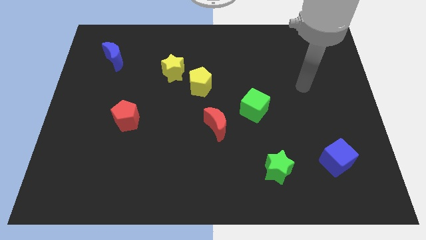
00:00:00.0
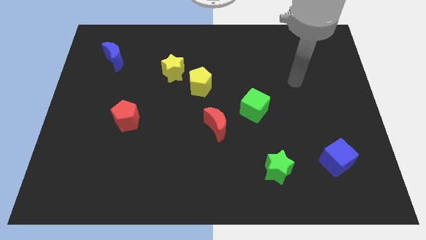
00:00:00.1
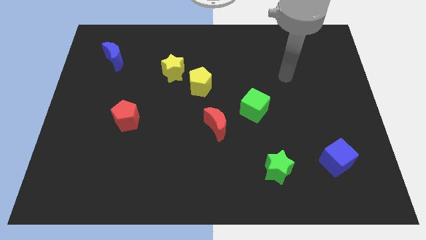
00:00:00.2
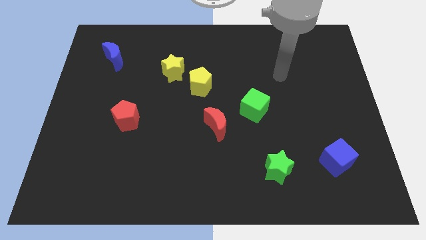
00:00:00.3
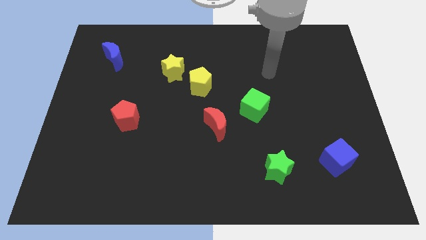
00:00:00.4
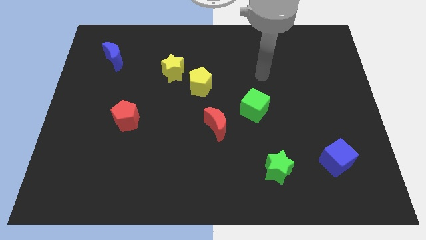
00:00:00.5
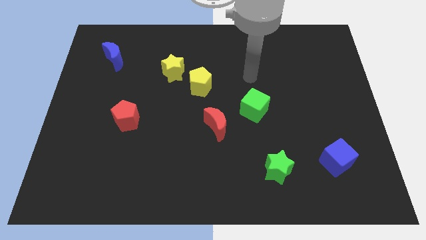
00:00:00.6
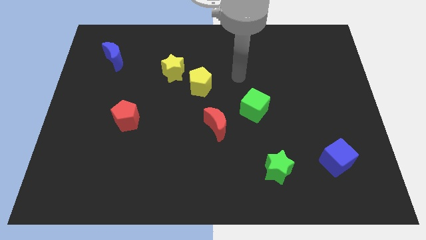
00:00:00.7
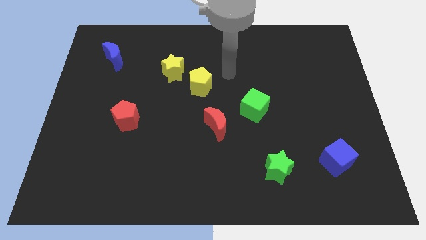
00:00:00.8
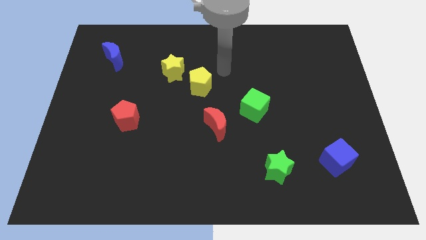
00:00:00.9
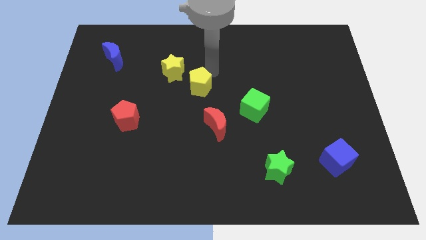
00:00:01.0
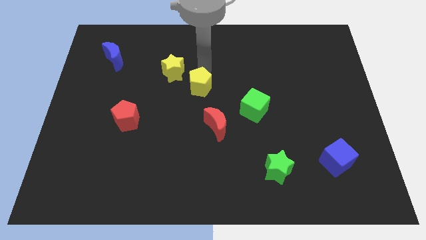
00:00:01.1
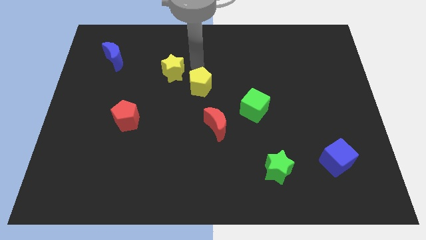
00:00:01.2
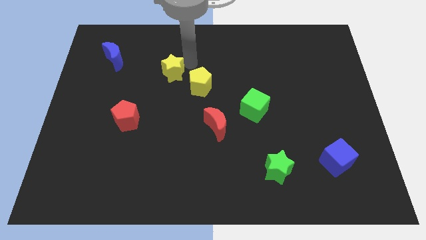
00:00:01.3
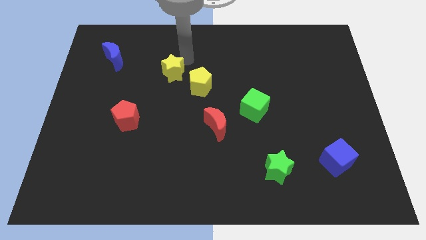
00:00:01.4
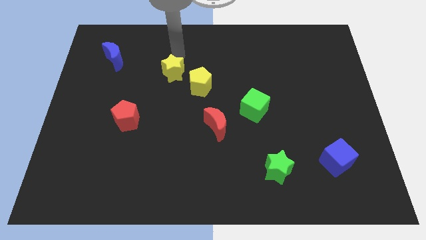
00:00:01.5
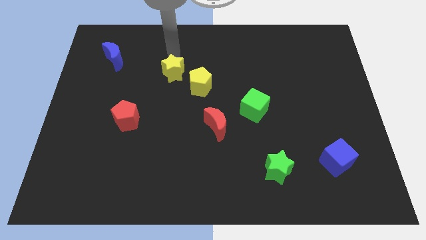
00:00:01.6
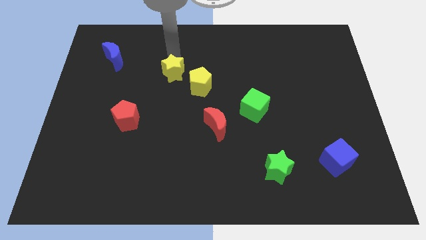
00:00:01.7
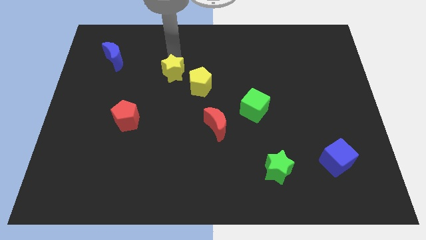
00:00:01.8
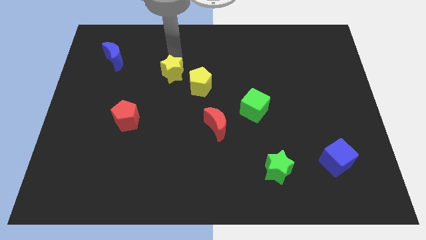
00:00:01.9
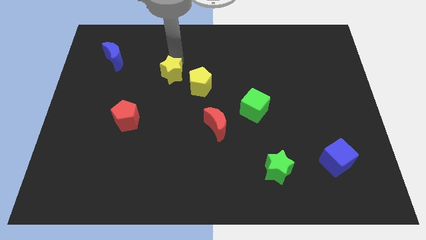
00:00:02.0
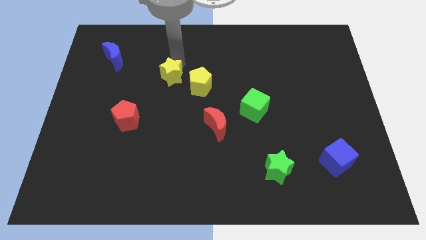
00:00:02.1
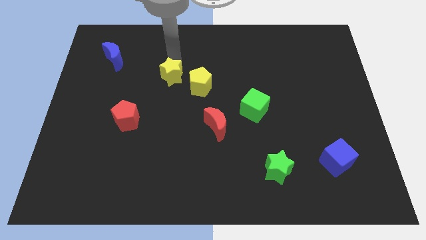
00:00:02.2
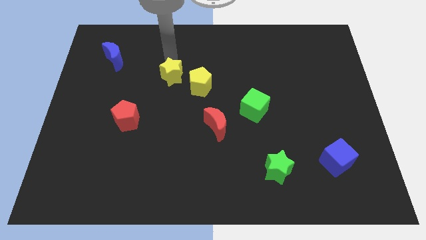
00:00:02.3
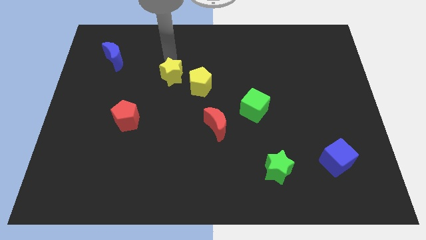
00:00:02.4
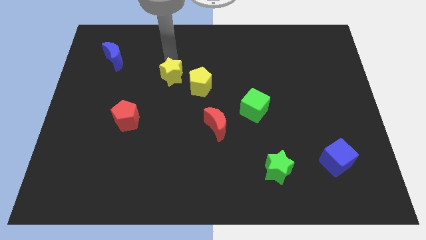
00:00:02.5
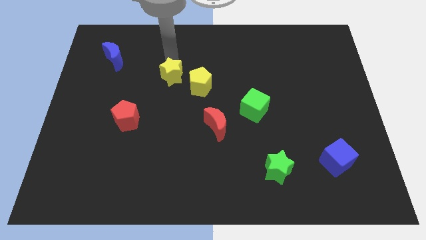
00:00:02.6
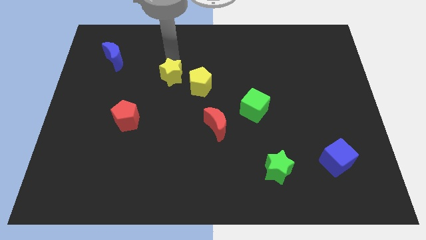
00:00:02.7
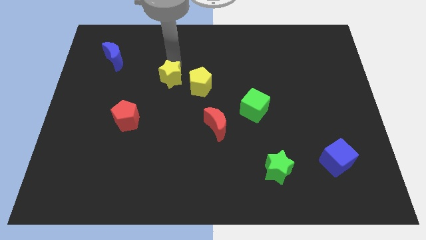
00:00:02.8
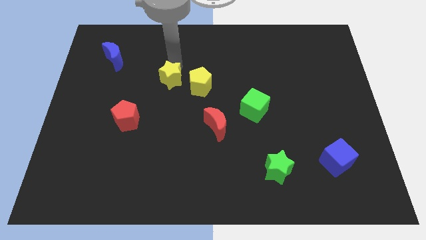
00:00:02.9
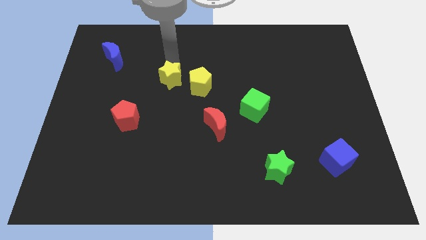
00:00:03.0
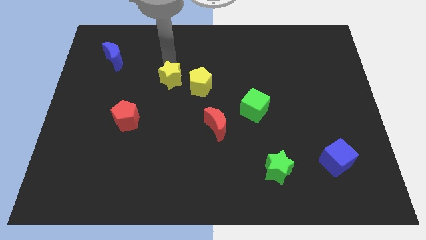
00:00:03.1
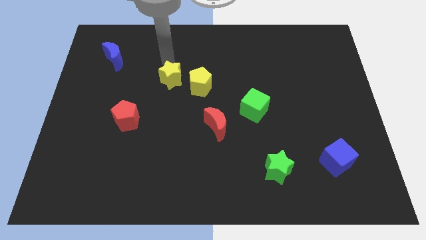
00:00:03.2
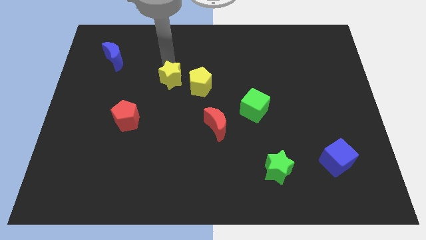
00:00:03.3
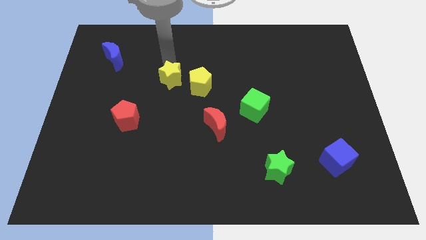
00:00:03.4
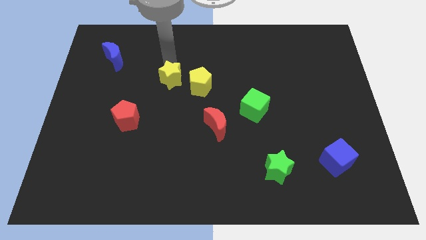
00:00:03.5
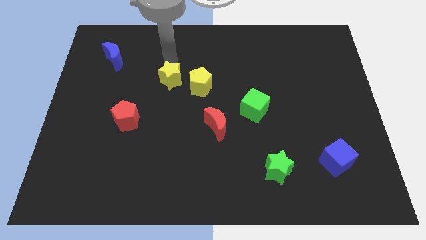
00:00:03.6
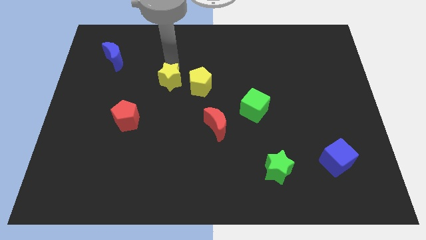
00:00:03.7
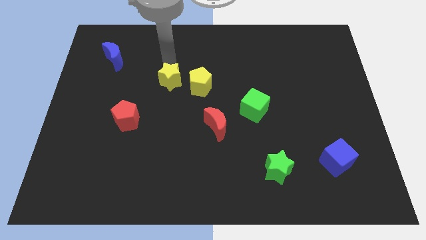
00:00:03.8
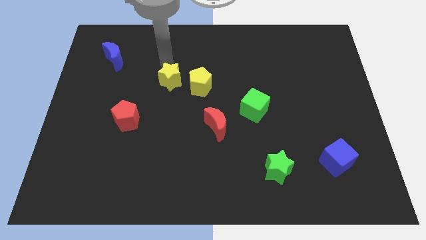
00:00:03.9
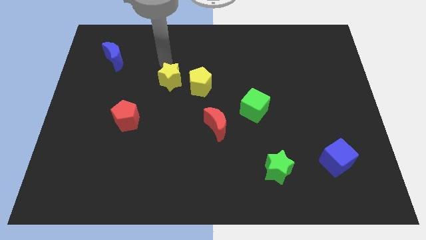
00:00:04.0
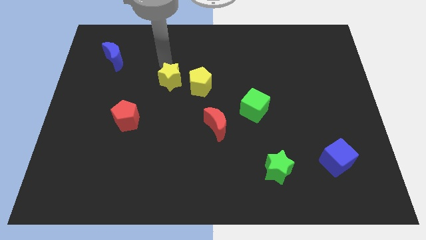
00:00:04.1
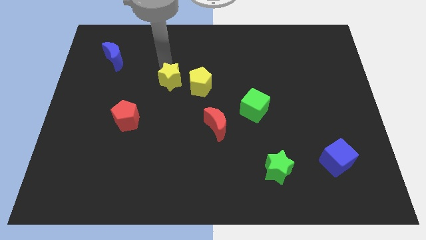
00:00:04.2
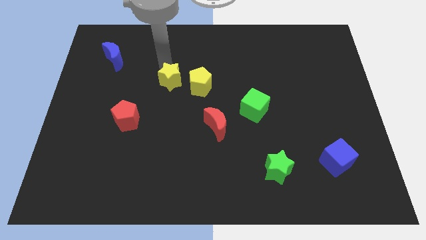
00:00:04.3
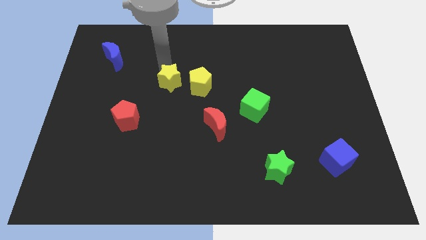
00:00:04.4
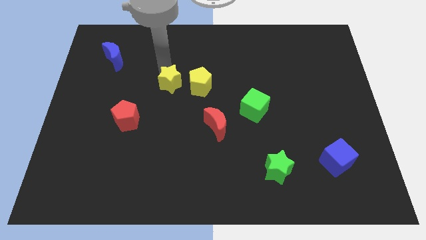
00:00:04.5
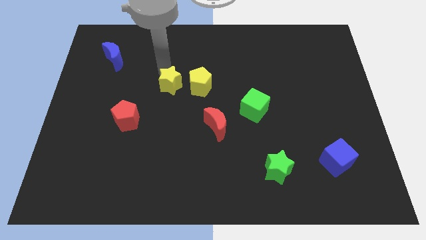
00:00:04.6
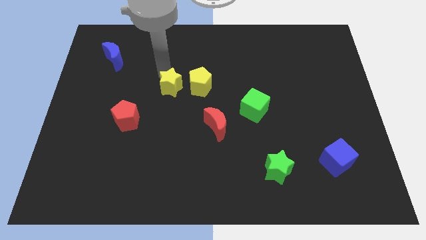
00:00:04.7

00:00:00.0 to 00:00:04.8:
slide the yellow star to the bottom left of the yellow pentagon

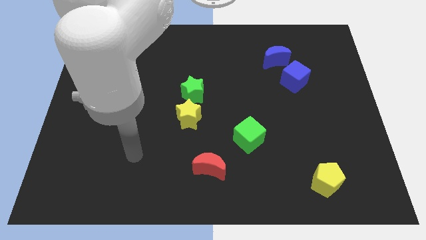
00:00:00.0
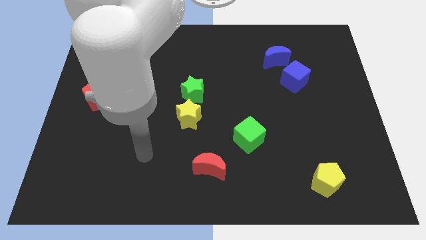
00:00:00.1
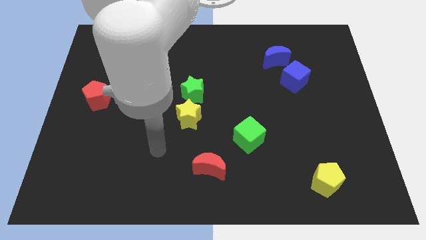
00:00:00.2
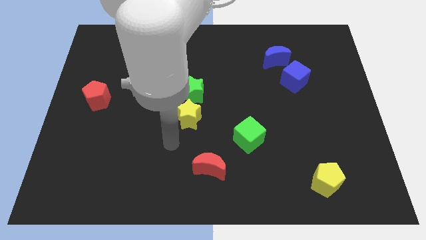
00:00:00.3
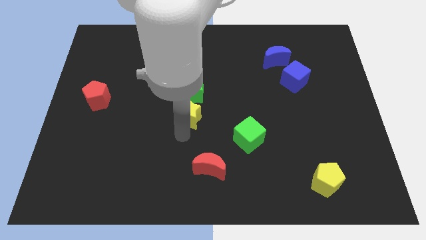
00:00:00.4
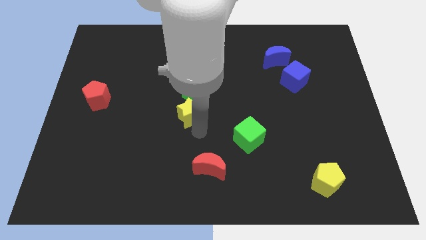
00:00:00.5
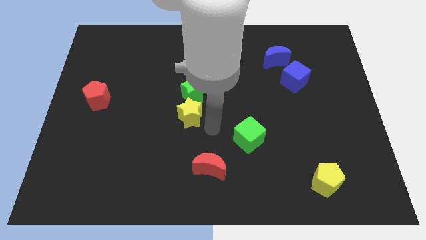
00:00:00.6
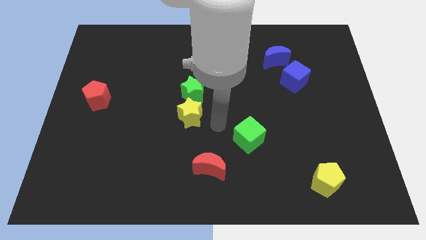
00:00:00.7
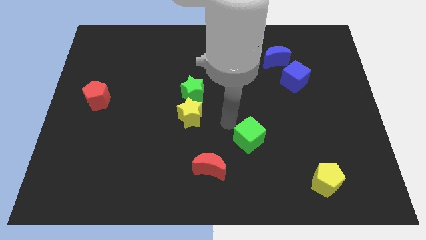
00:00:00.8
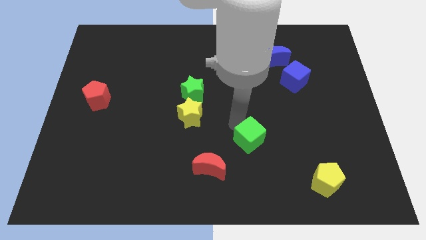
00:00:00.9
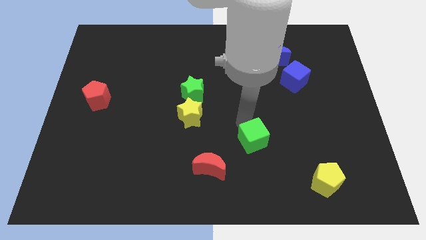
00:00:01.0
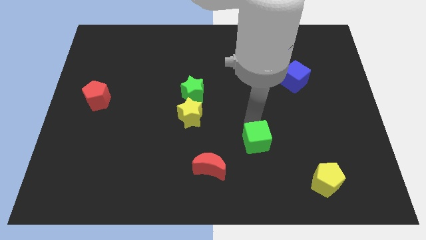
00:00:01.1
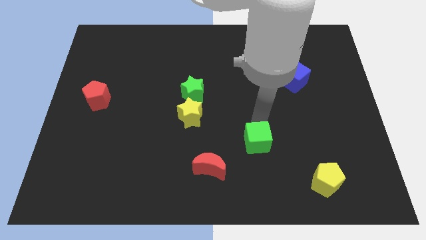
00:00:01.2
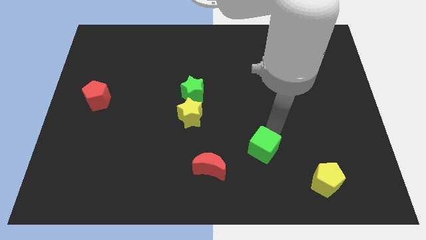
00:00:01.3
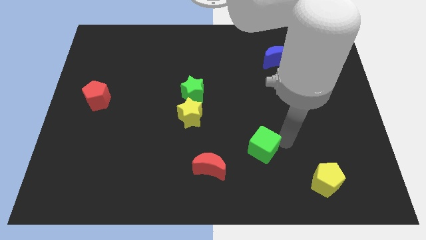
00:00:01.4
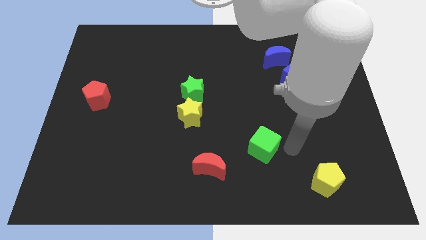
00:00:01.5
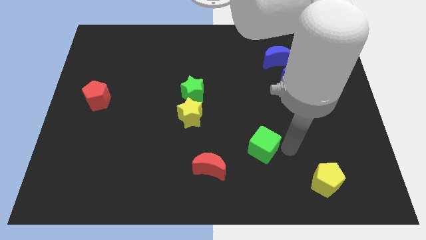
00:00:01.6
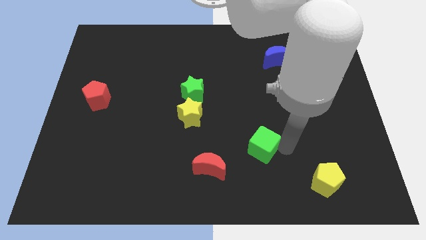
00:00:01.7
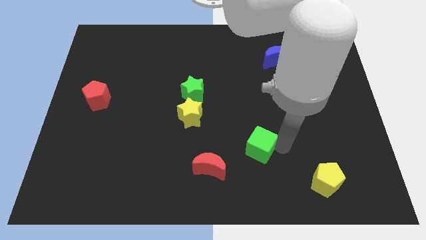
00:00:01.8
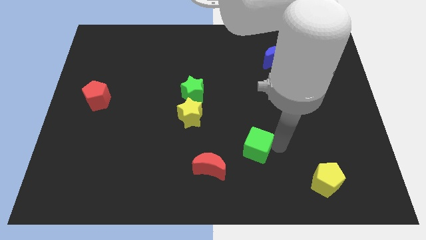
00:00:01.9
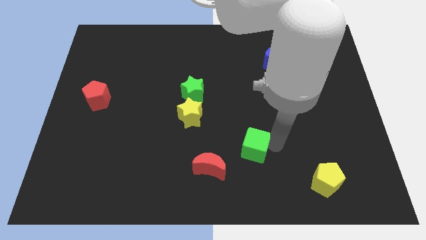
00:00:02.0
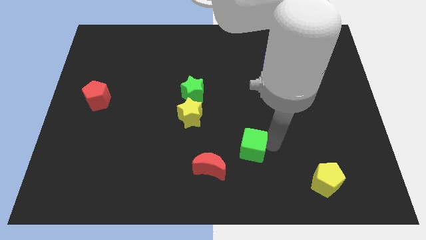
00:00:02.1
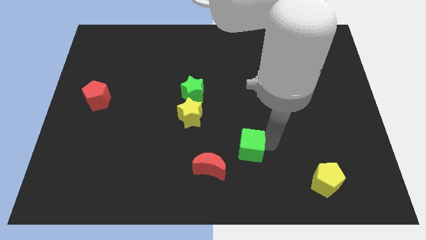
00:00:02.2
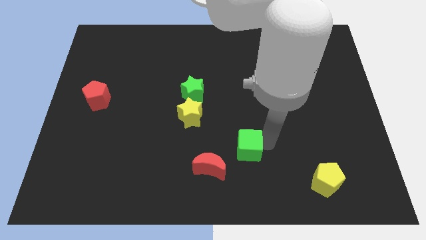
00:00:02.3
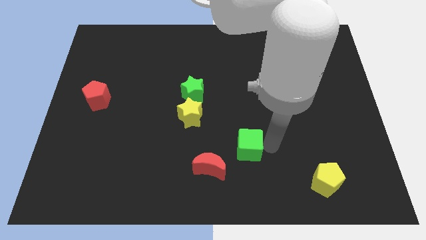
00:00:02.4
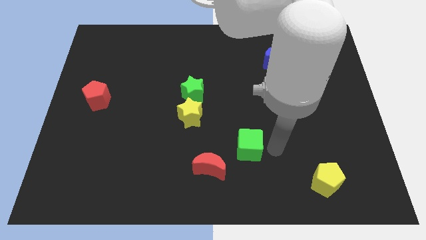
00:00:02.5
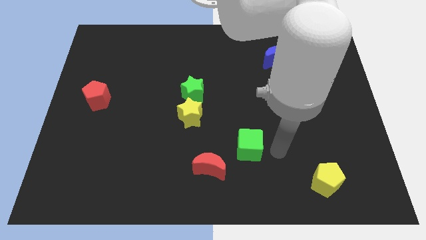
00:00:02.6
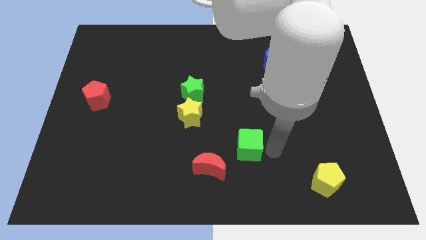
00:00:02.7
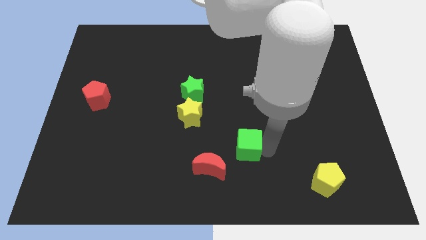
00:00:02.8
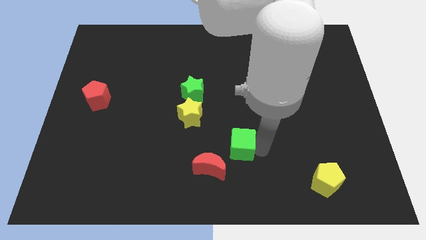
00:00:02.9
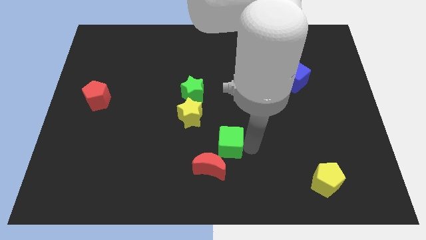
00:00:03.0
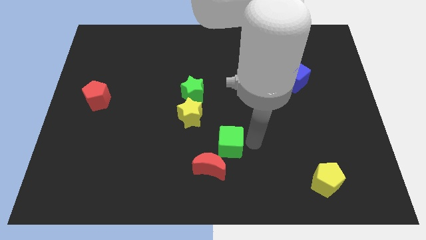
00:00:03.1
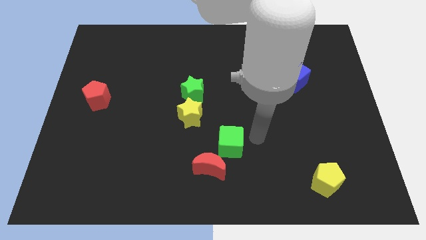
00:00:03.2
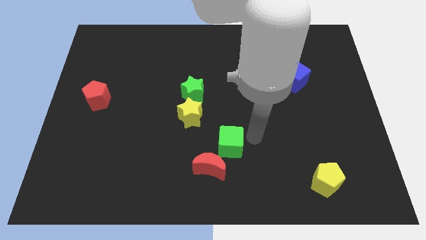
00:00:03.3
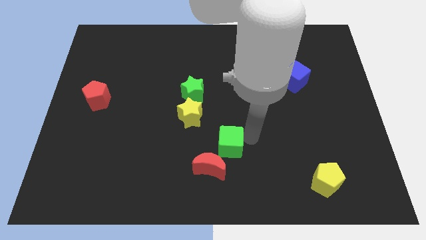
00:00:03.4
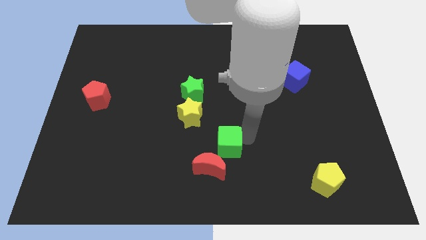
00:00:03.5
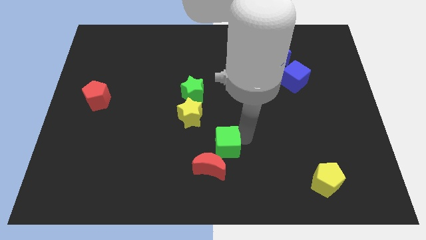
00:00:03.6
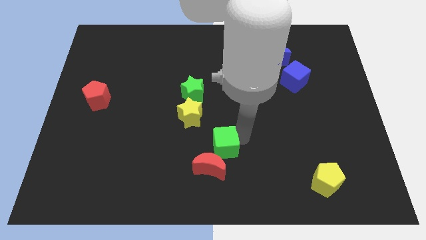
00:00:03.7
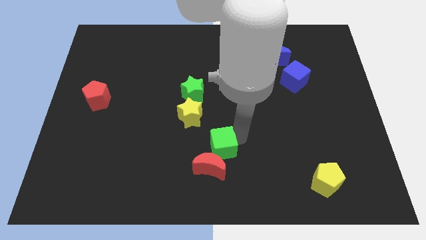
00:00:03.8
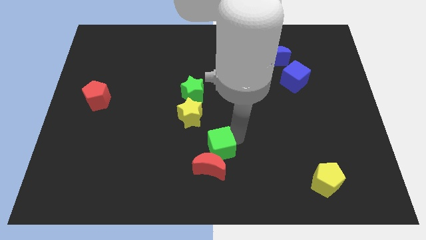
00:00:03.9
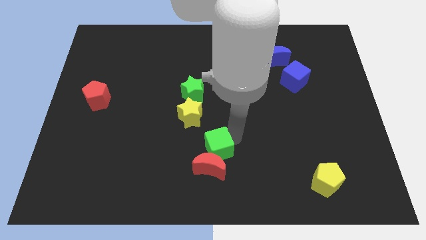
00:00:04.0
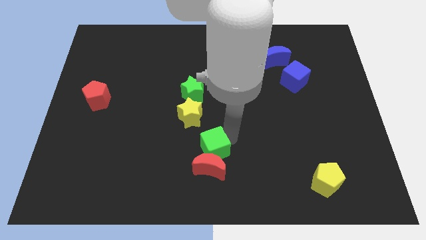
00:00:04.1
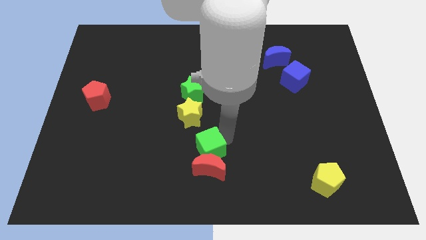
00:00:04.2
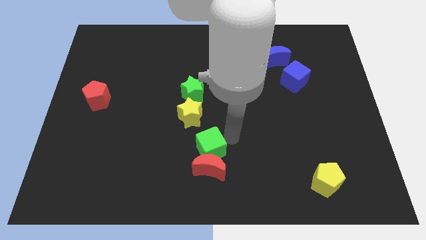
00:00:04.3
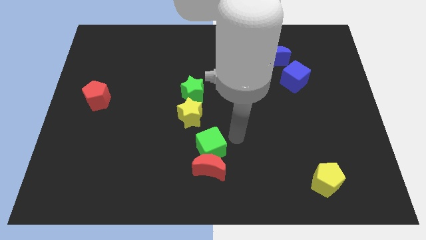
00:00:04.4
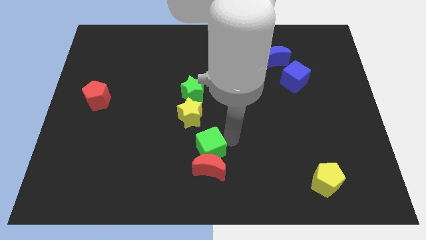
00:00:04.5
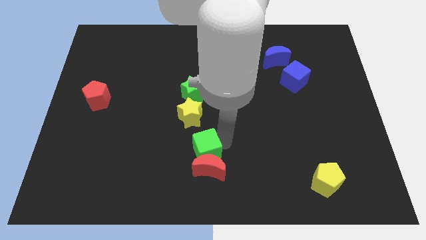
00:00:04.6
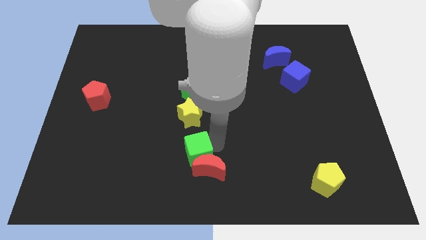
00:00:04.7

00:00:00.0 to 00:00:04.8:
push the green cube to the left of the red moon
